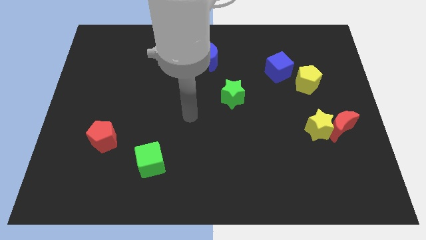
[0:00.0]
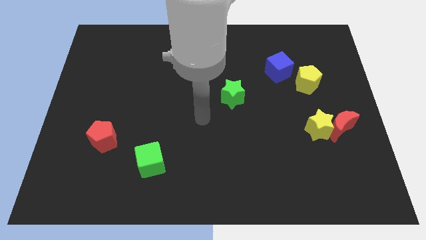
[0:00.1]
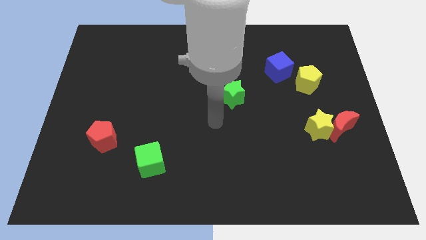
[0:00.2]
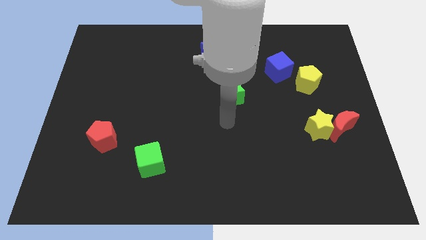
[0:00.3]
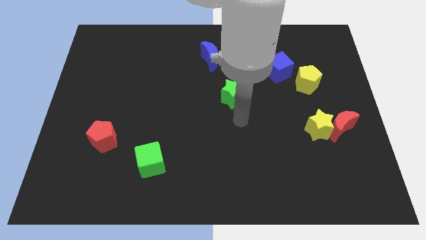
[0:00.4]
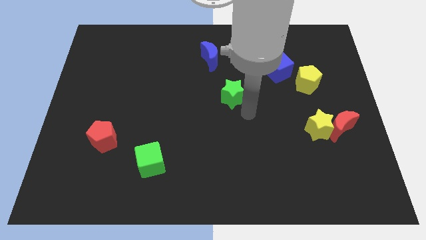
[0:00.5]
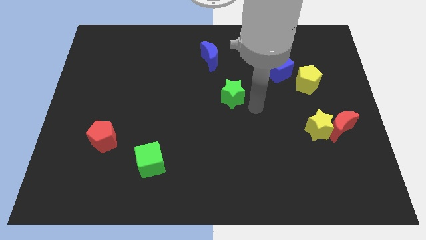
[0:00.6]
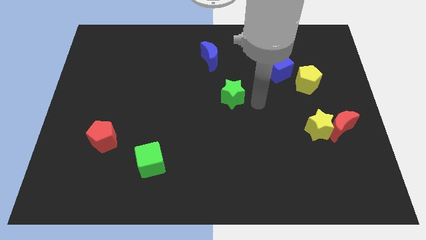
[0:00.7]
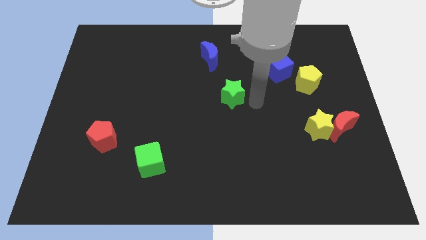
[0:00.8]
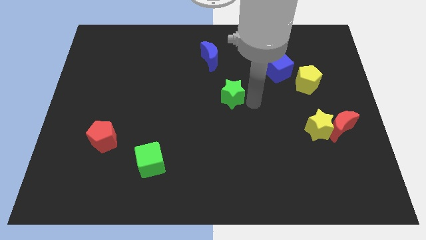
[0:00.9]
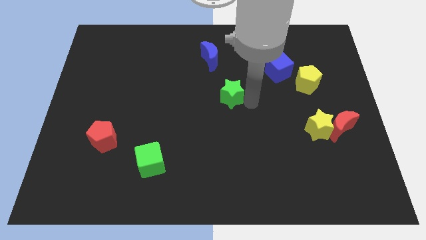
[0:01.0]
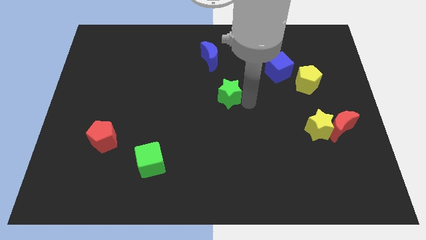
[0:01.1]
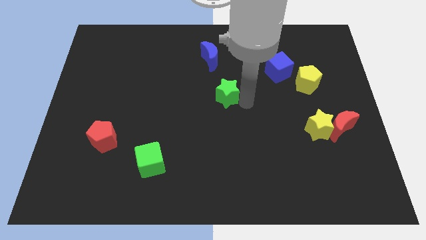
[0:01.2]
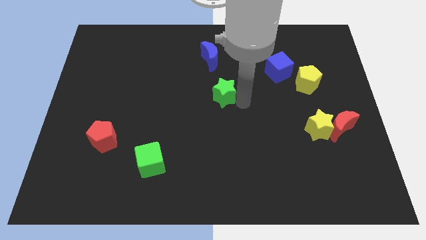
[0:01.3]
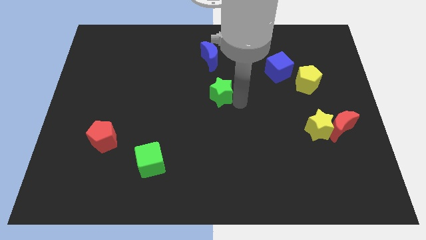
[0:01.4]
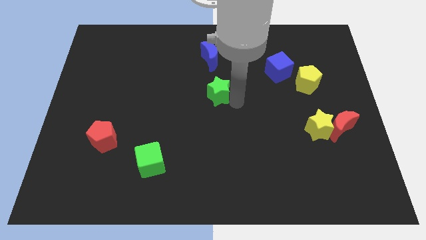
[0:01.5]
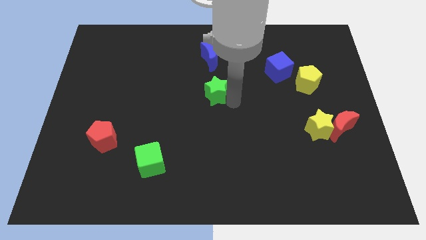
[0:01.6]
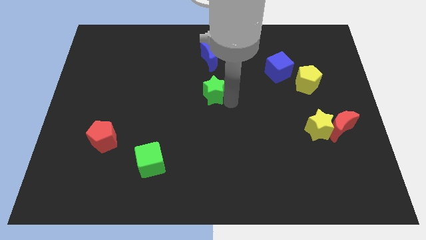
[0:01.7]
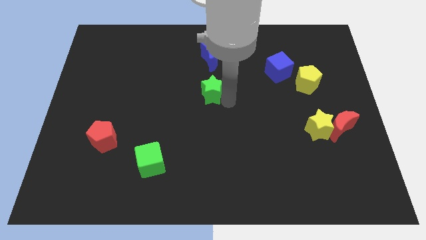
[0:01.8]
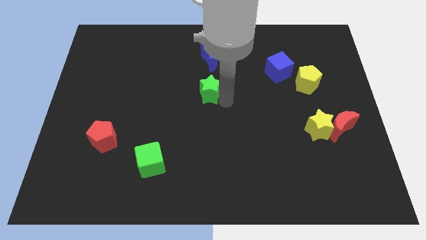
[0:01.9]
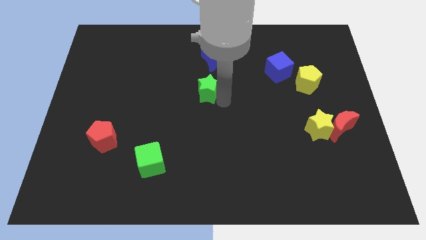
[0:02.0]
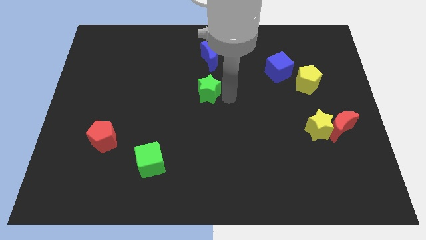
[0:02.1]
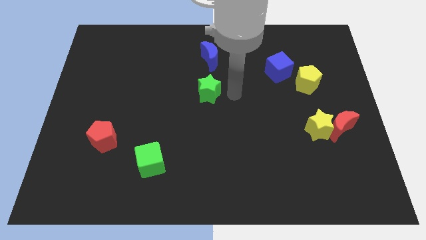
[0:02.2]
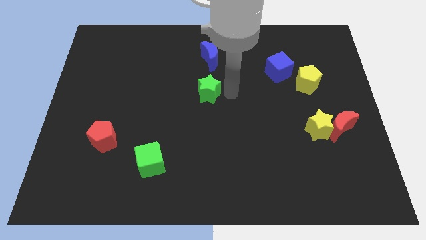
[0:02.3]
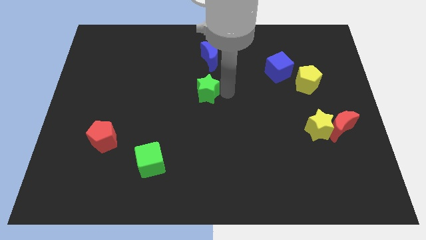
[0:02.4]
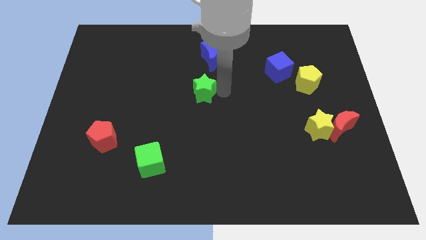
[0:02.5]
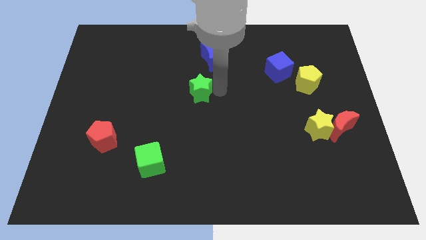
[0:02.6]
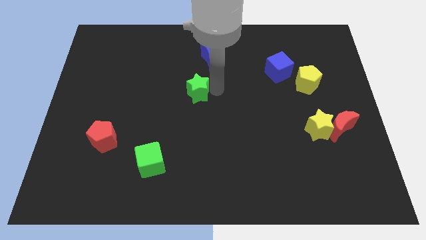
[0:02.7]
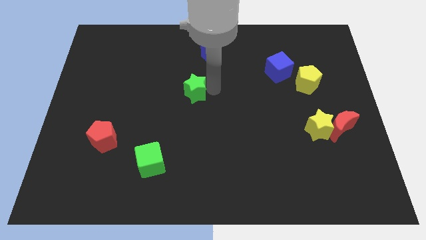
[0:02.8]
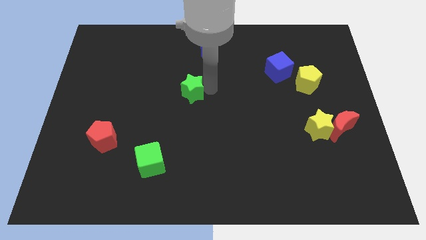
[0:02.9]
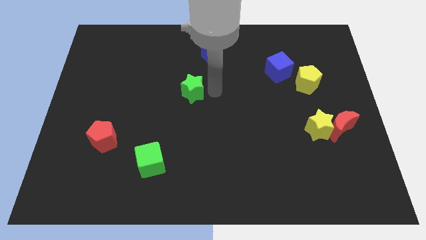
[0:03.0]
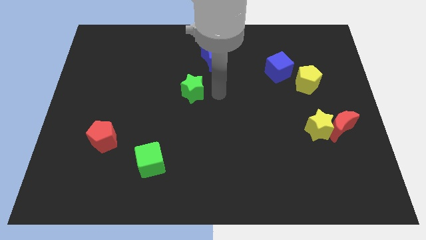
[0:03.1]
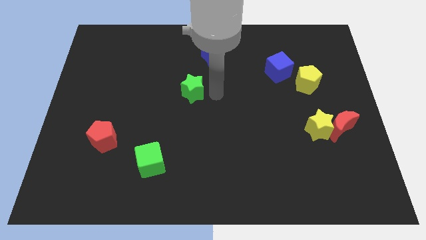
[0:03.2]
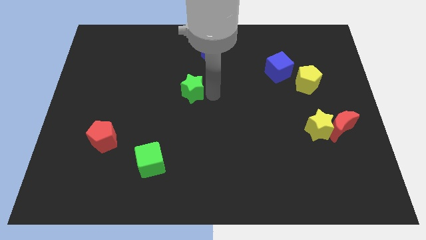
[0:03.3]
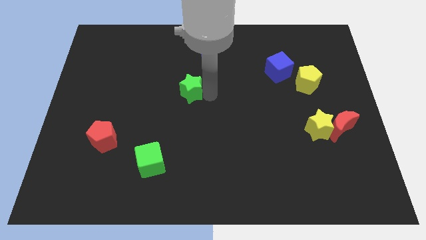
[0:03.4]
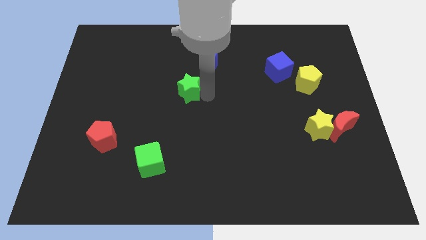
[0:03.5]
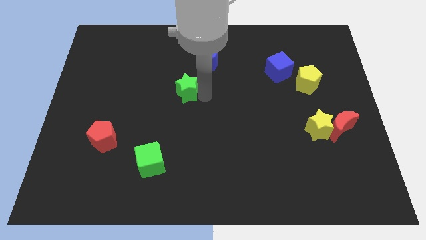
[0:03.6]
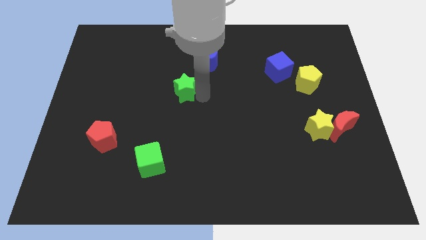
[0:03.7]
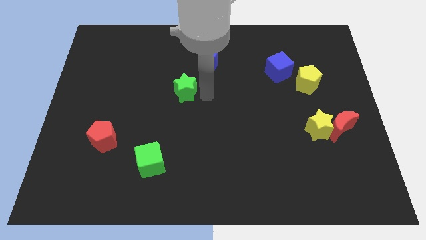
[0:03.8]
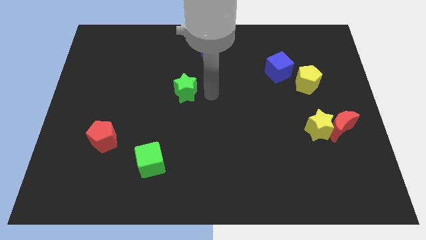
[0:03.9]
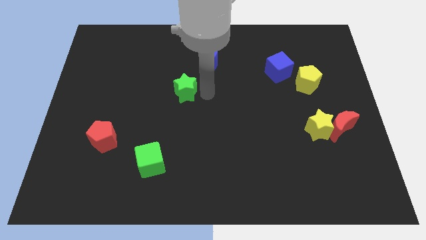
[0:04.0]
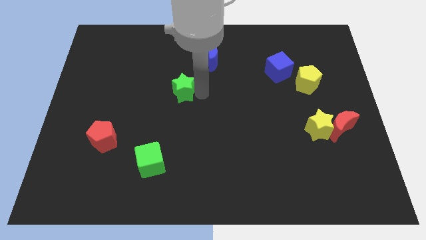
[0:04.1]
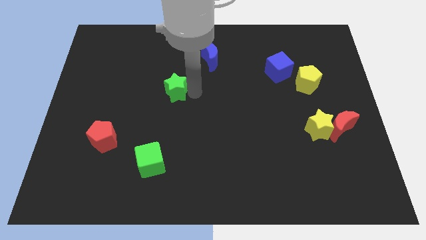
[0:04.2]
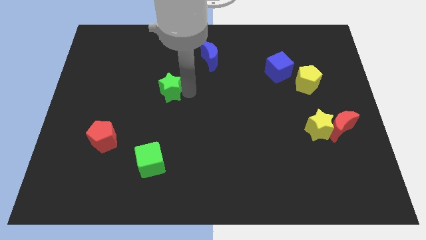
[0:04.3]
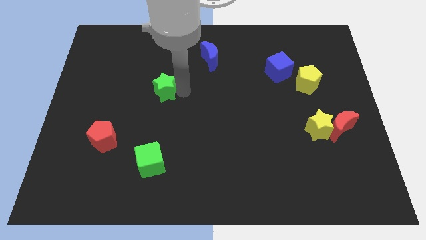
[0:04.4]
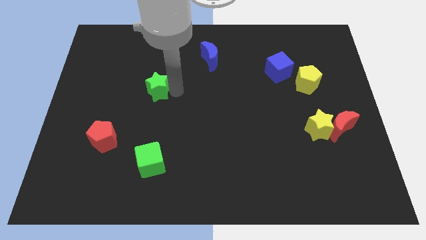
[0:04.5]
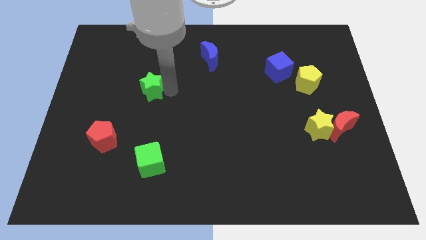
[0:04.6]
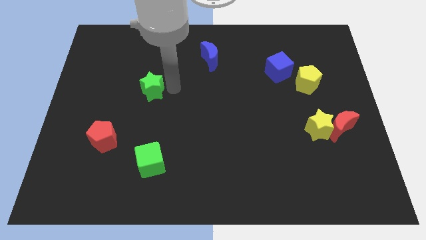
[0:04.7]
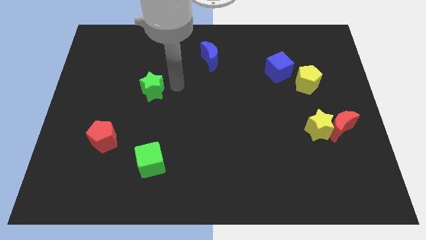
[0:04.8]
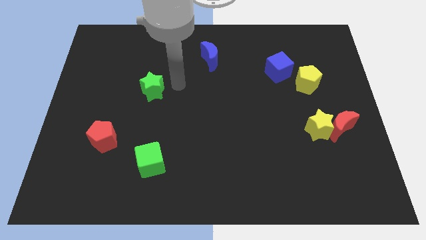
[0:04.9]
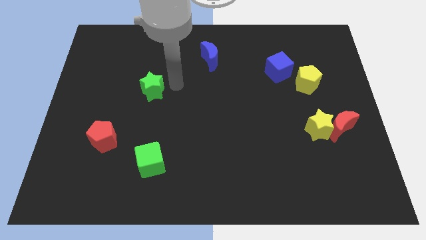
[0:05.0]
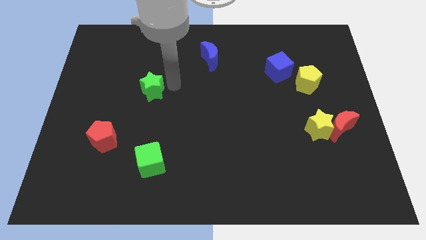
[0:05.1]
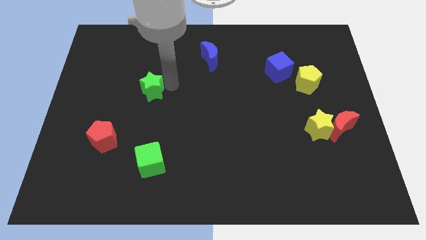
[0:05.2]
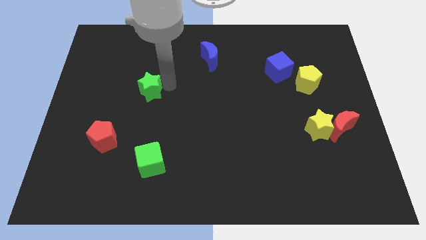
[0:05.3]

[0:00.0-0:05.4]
move the green star left

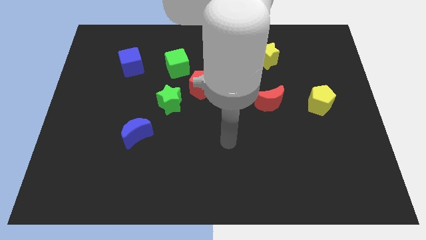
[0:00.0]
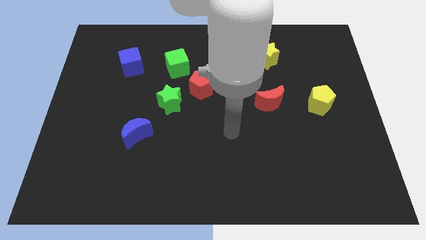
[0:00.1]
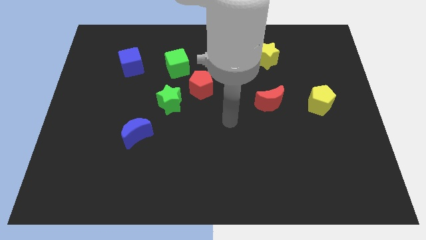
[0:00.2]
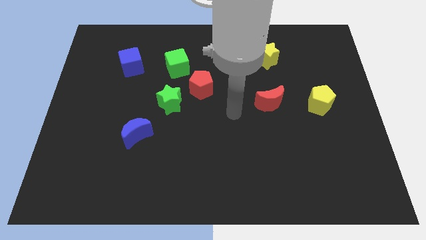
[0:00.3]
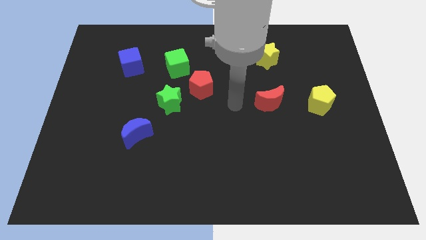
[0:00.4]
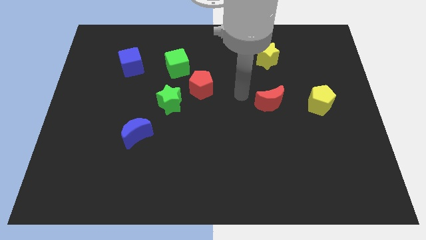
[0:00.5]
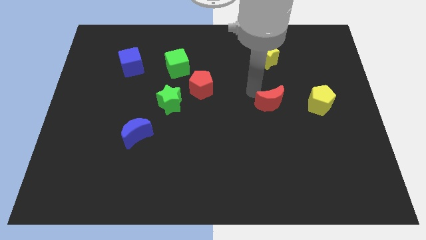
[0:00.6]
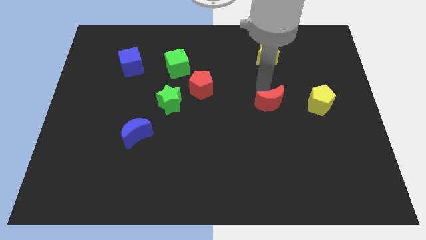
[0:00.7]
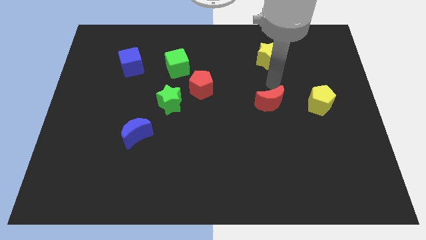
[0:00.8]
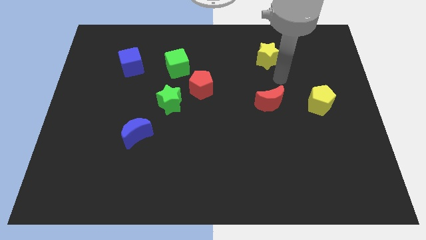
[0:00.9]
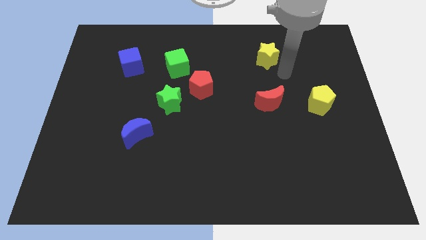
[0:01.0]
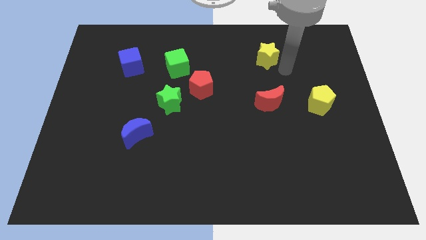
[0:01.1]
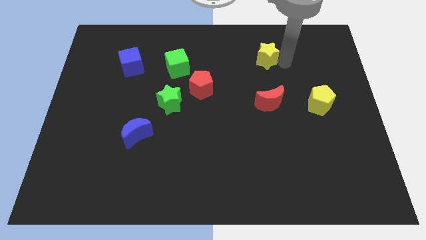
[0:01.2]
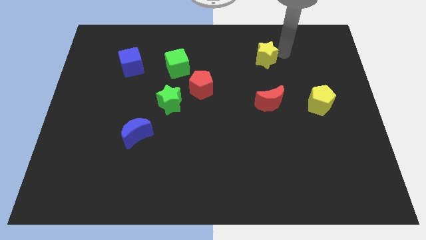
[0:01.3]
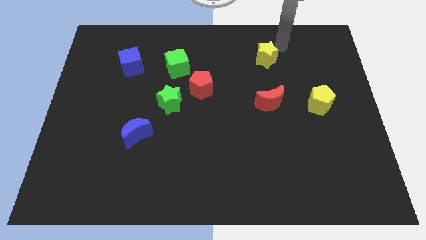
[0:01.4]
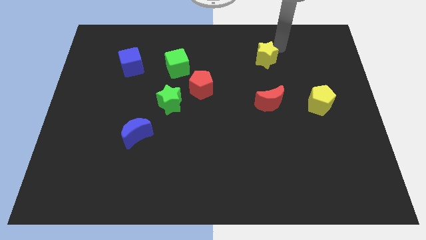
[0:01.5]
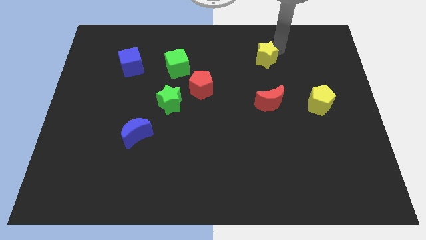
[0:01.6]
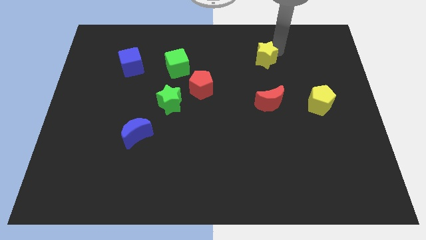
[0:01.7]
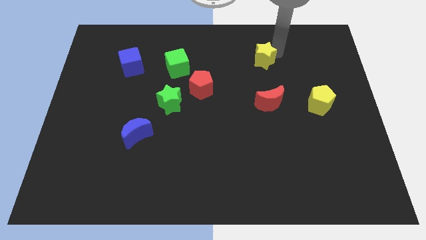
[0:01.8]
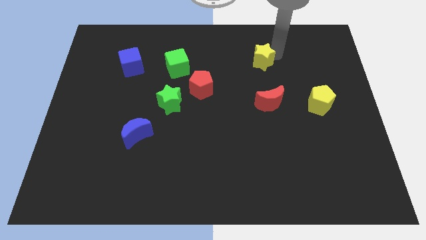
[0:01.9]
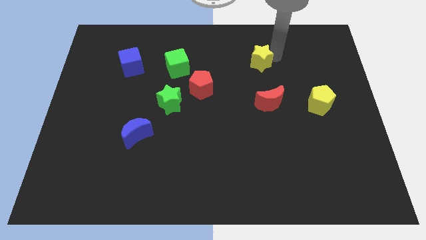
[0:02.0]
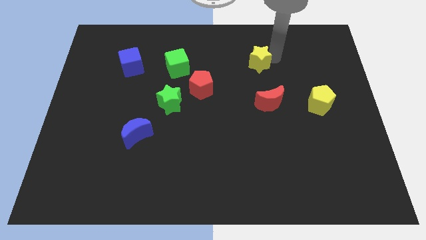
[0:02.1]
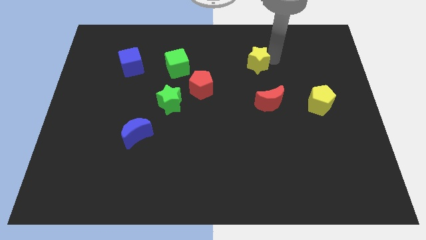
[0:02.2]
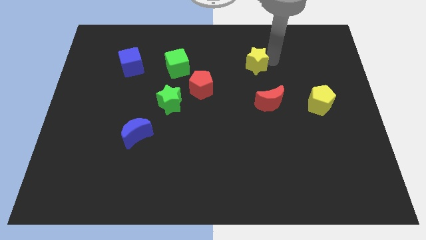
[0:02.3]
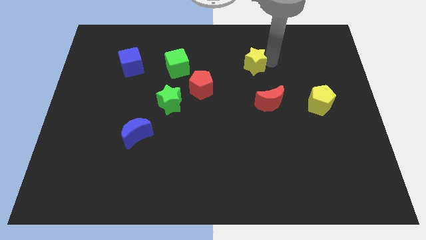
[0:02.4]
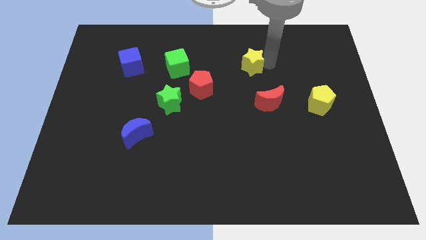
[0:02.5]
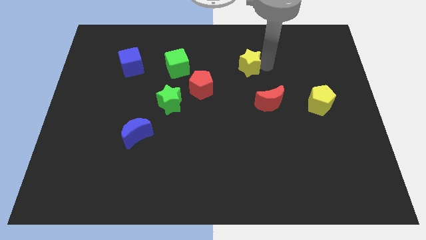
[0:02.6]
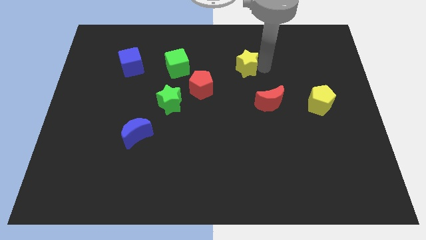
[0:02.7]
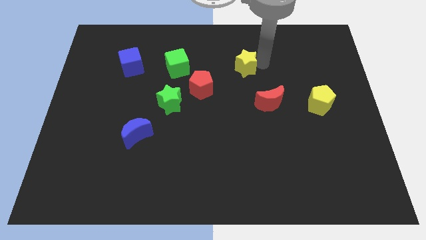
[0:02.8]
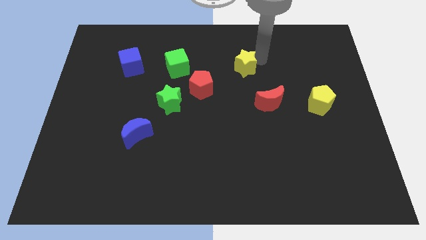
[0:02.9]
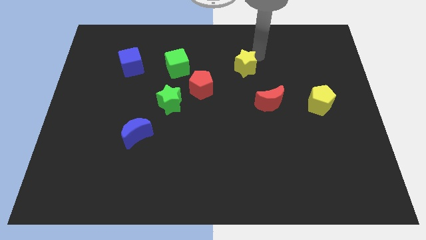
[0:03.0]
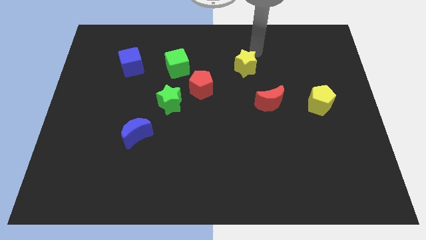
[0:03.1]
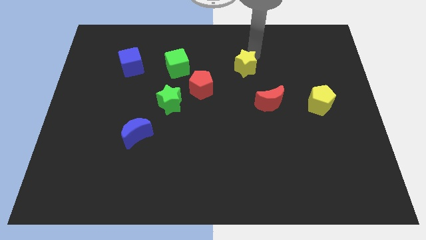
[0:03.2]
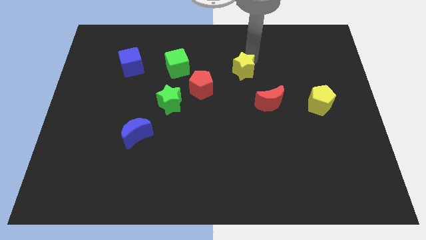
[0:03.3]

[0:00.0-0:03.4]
slightly move the yellow star down and then to the left
